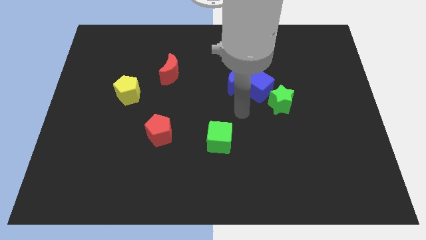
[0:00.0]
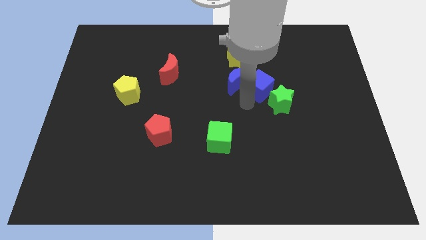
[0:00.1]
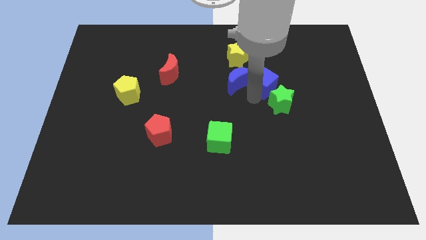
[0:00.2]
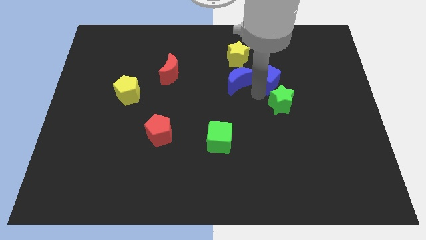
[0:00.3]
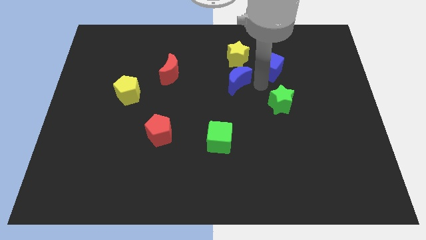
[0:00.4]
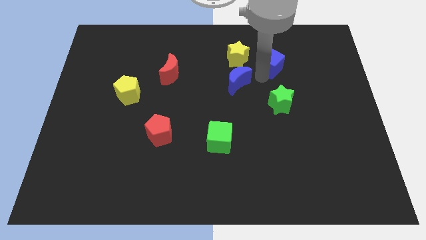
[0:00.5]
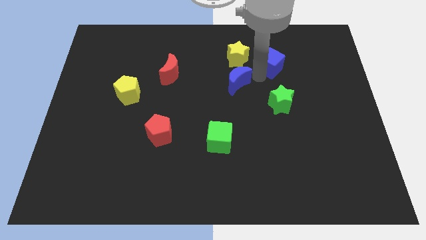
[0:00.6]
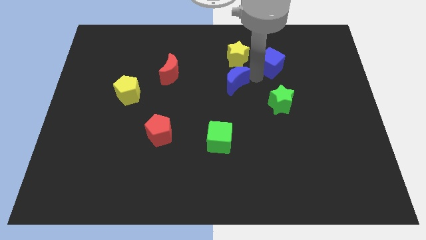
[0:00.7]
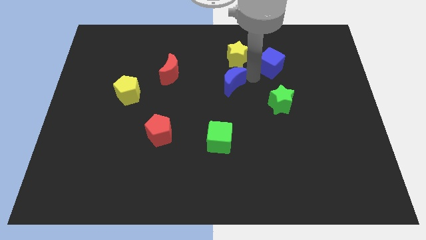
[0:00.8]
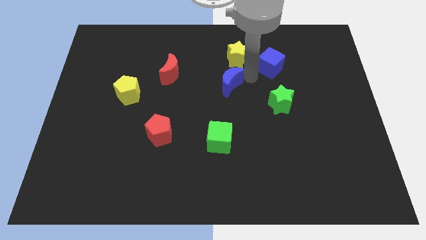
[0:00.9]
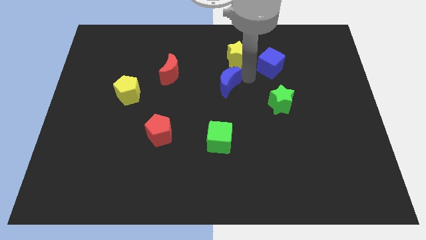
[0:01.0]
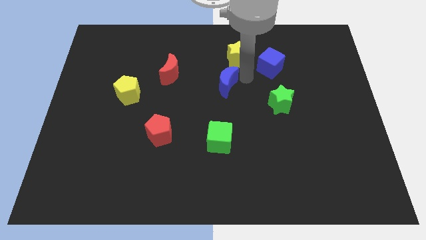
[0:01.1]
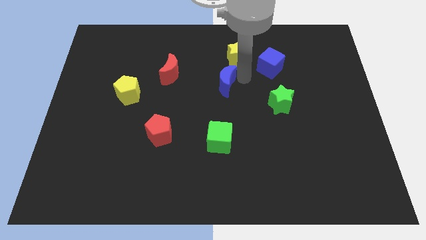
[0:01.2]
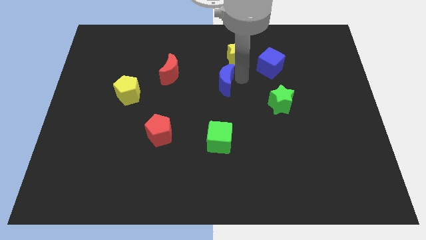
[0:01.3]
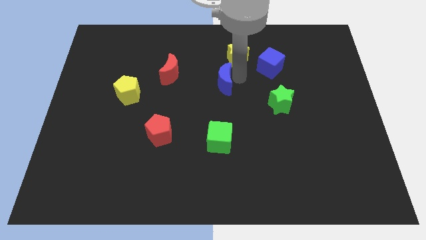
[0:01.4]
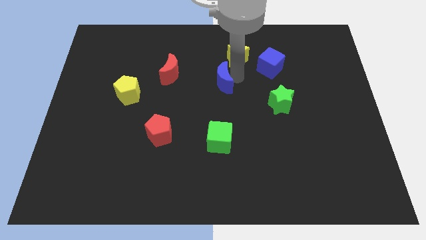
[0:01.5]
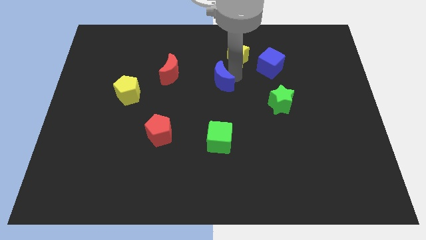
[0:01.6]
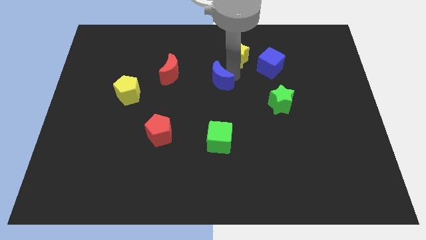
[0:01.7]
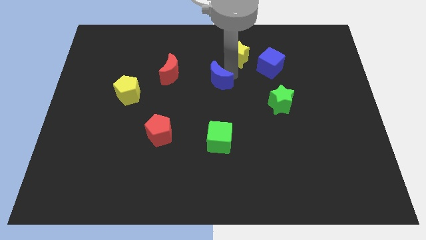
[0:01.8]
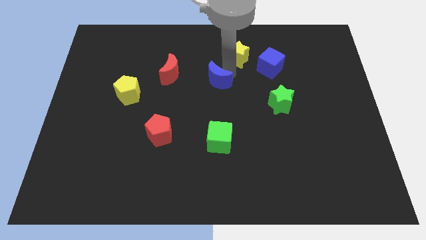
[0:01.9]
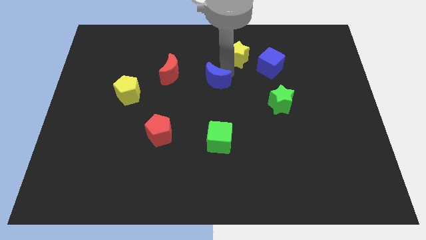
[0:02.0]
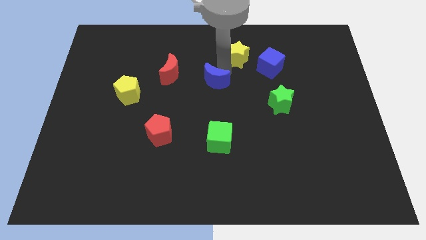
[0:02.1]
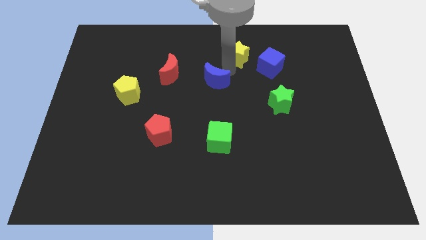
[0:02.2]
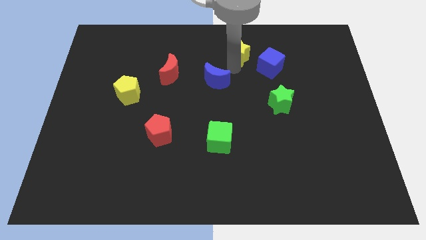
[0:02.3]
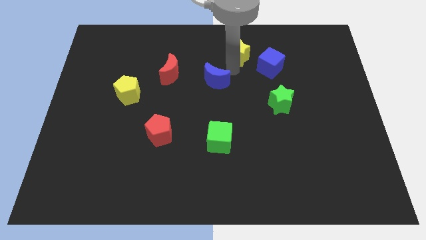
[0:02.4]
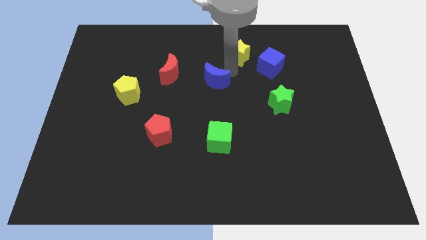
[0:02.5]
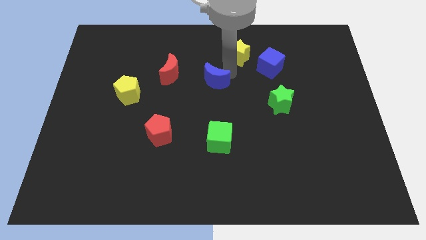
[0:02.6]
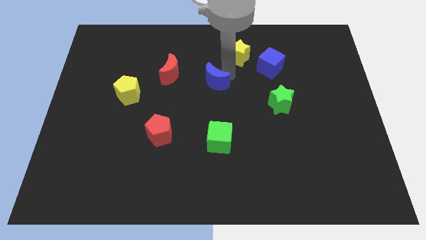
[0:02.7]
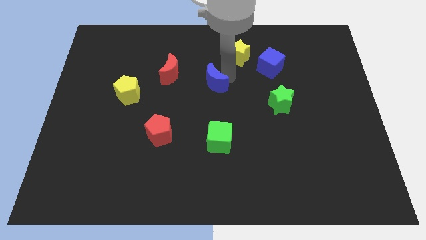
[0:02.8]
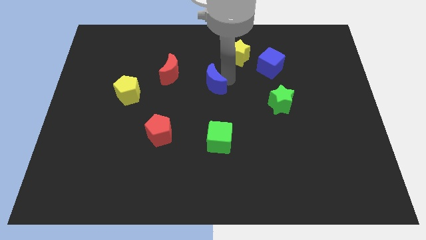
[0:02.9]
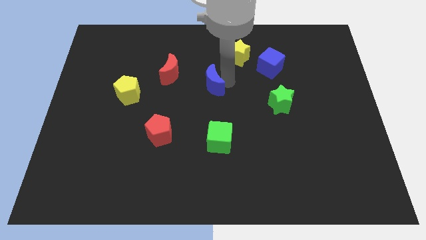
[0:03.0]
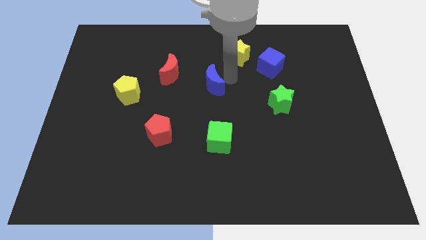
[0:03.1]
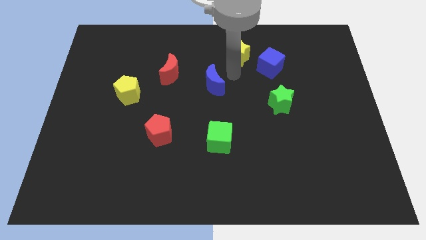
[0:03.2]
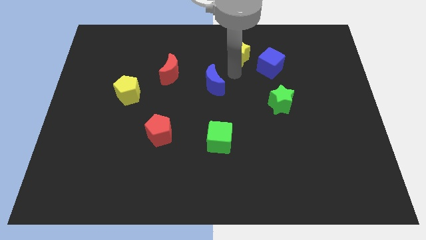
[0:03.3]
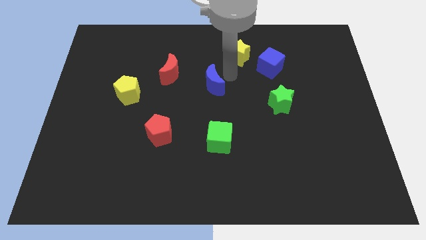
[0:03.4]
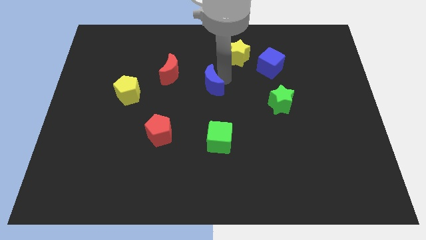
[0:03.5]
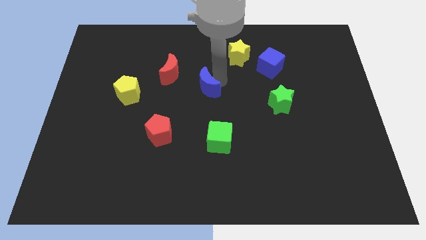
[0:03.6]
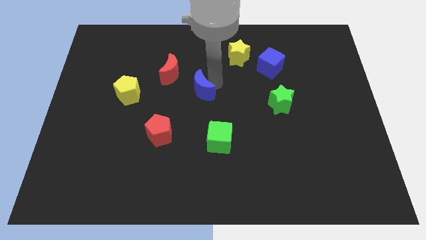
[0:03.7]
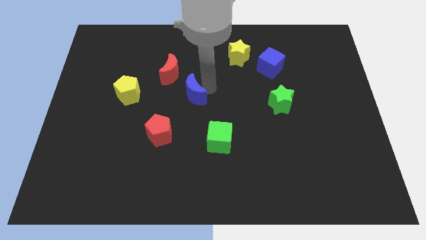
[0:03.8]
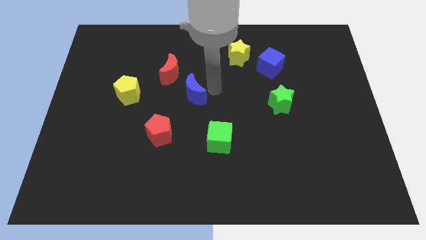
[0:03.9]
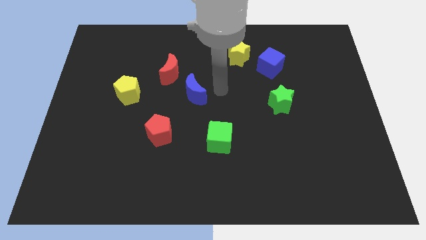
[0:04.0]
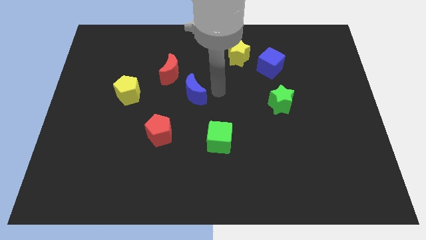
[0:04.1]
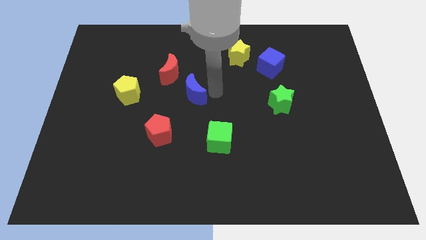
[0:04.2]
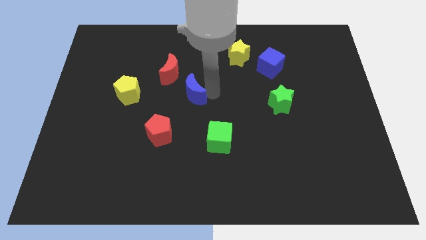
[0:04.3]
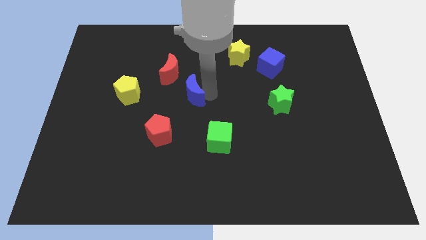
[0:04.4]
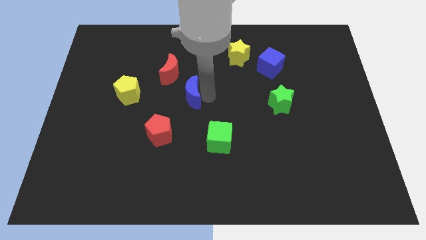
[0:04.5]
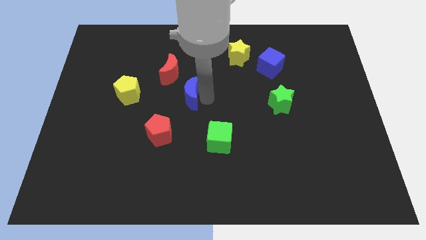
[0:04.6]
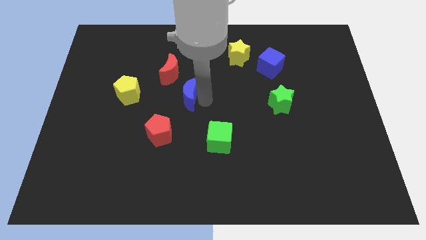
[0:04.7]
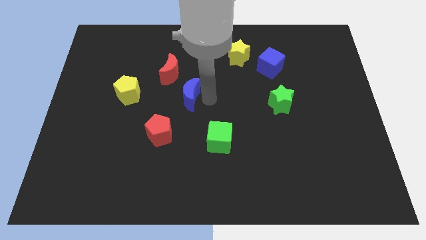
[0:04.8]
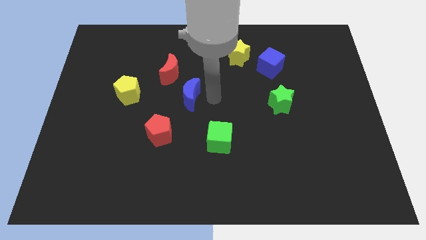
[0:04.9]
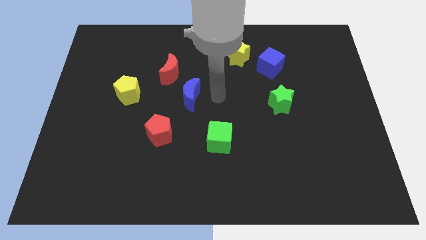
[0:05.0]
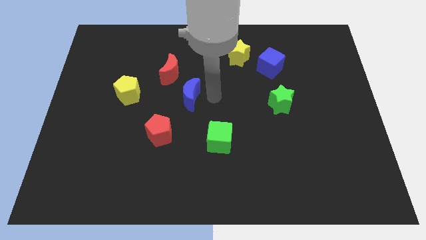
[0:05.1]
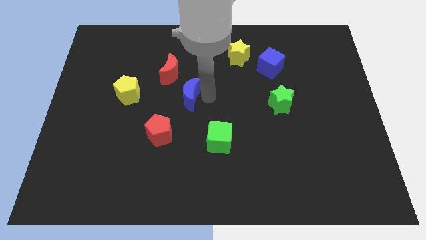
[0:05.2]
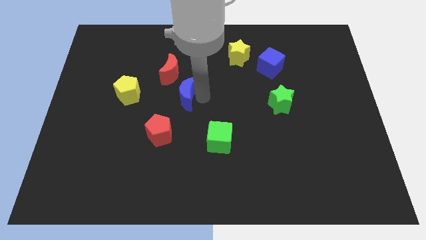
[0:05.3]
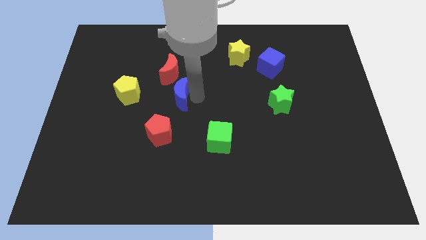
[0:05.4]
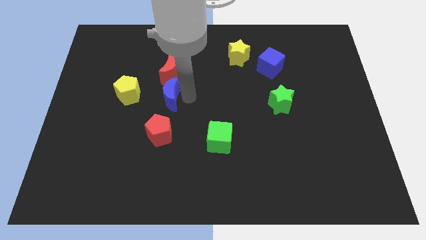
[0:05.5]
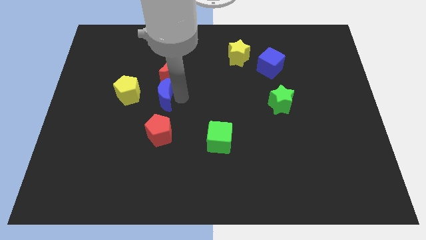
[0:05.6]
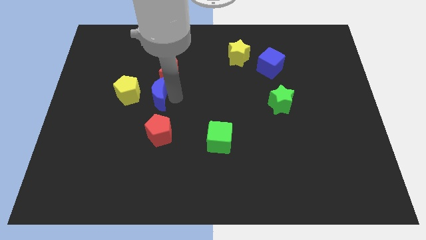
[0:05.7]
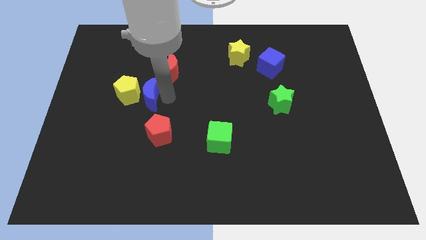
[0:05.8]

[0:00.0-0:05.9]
slide the blue moon towards the yellow pentagon

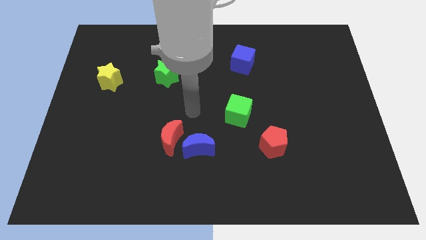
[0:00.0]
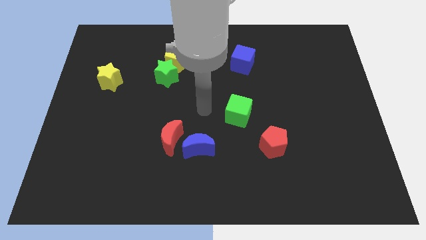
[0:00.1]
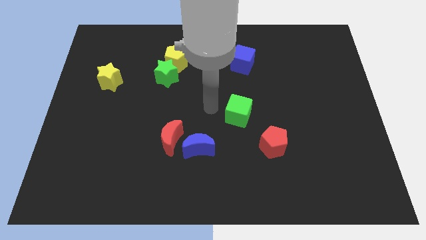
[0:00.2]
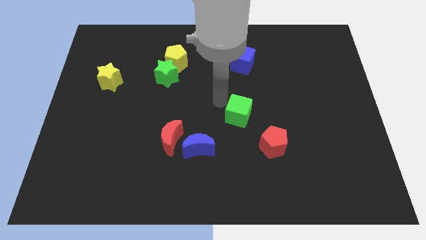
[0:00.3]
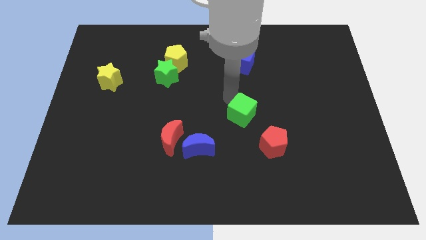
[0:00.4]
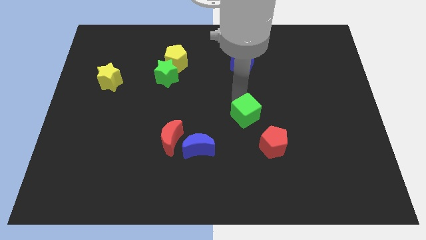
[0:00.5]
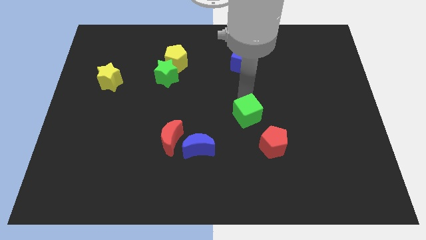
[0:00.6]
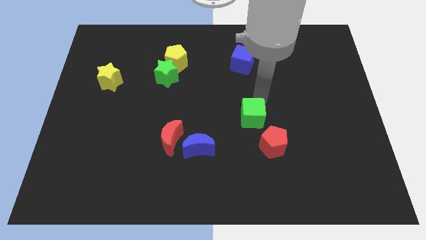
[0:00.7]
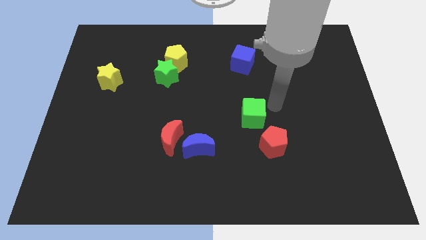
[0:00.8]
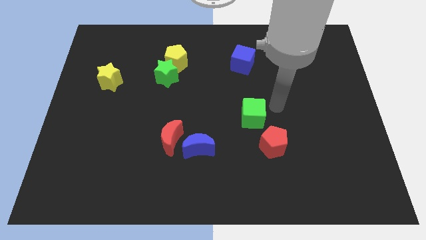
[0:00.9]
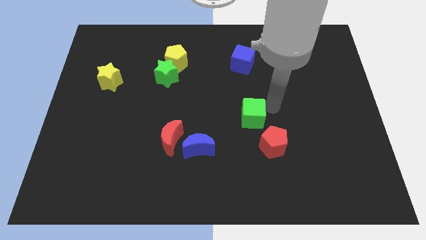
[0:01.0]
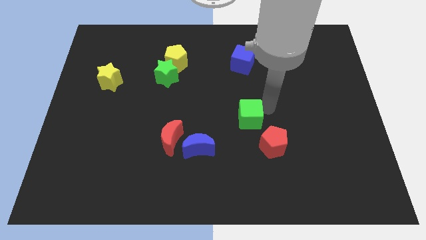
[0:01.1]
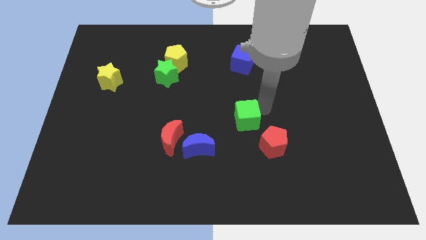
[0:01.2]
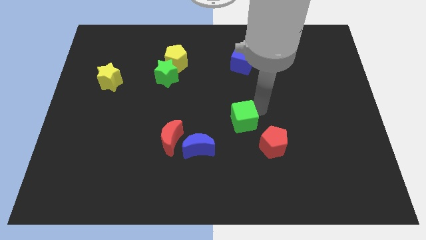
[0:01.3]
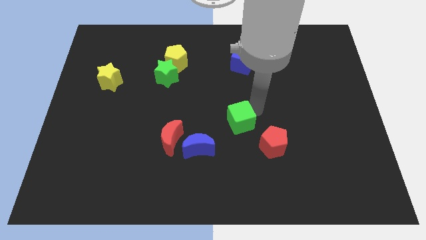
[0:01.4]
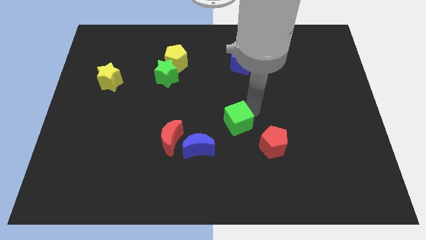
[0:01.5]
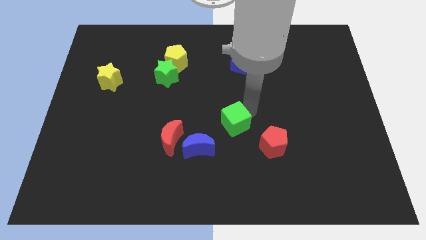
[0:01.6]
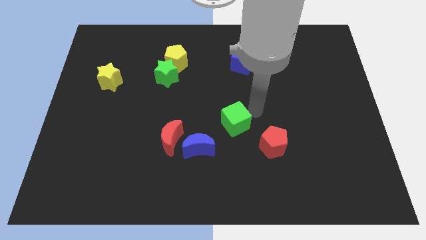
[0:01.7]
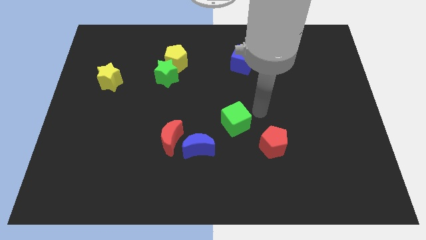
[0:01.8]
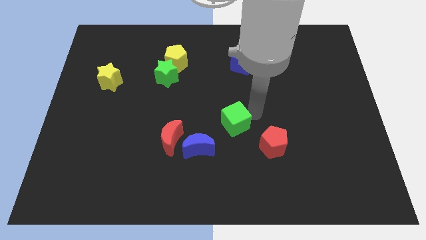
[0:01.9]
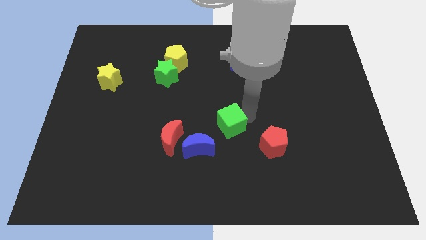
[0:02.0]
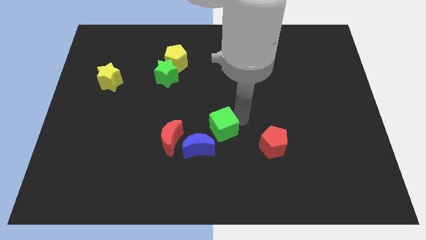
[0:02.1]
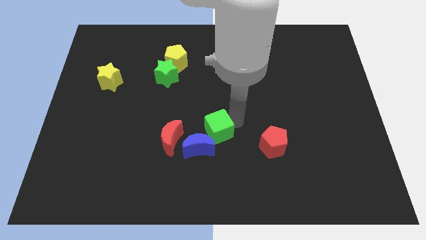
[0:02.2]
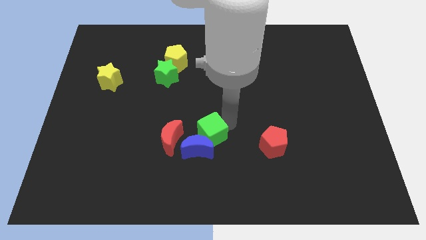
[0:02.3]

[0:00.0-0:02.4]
push the green cube to the blue moon
